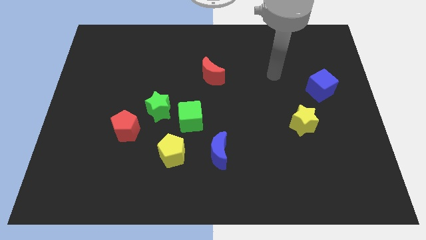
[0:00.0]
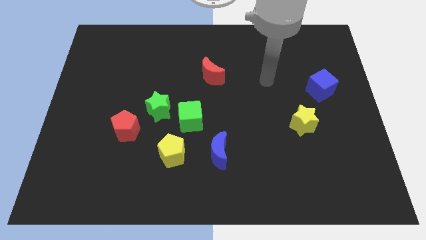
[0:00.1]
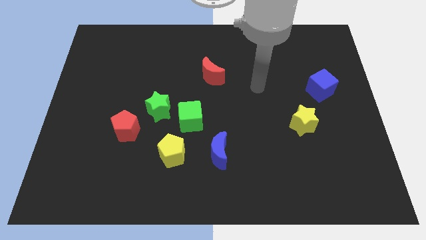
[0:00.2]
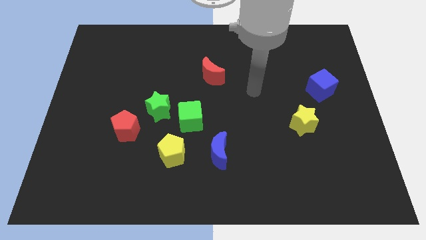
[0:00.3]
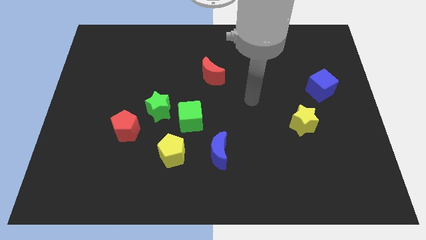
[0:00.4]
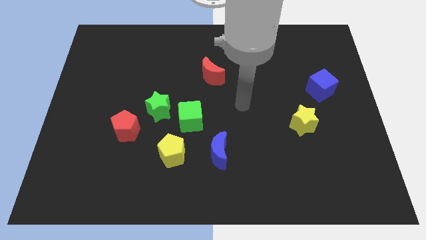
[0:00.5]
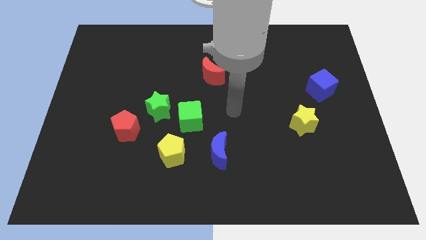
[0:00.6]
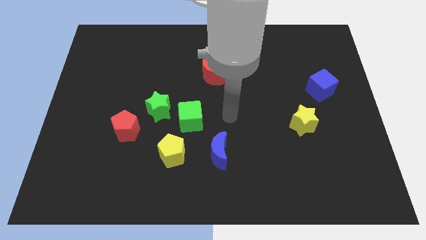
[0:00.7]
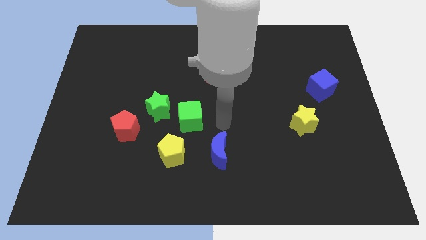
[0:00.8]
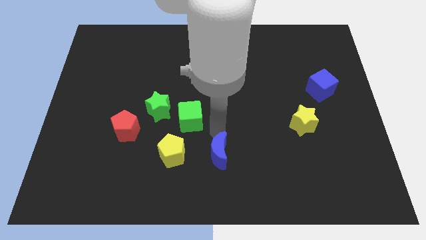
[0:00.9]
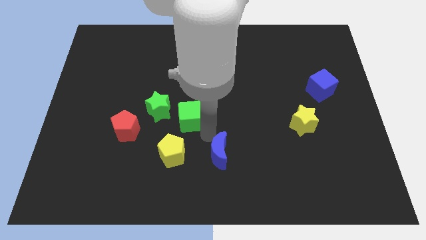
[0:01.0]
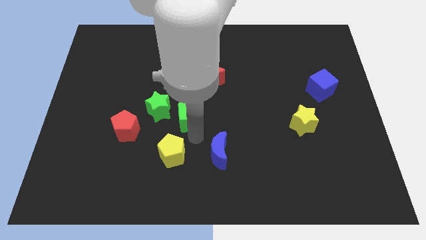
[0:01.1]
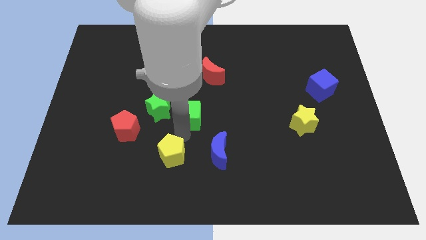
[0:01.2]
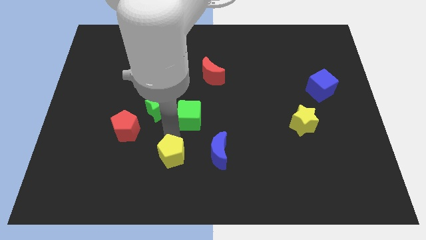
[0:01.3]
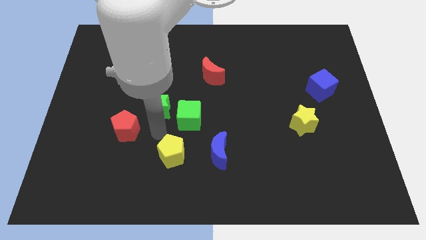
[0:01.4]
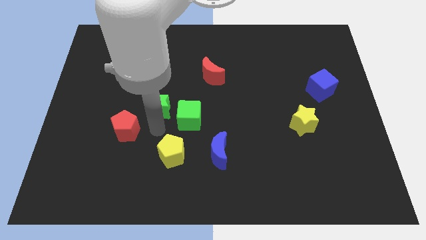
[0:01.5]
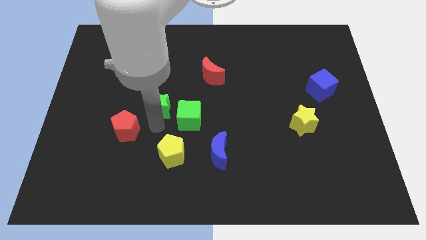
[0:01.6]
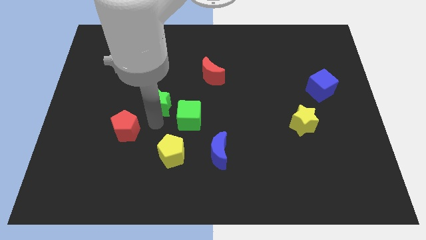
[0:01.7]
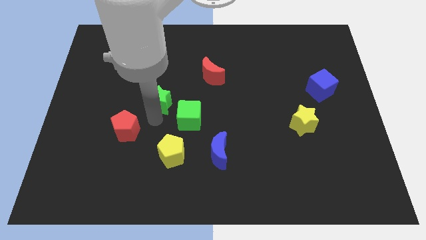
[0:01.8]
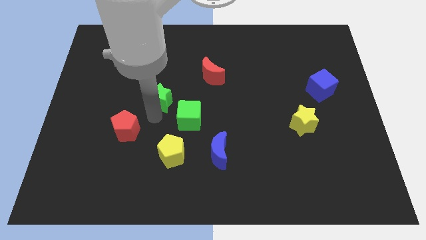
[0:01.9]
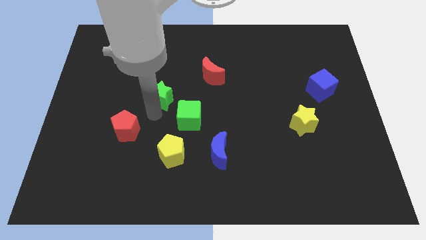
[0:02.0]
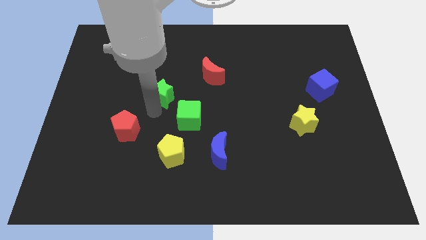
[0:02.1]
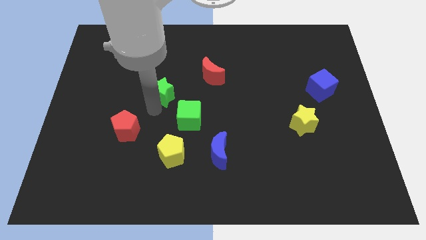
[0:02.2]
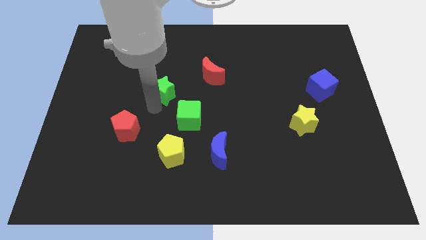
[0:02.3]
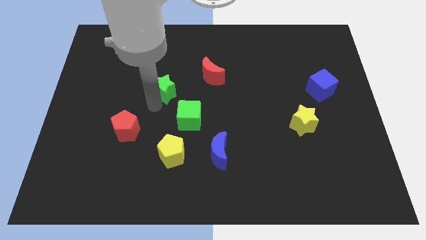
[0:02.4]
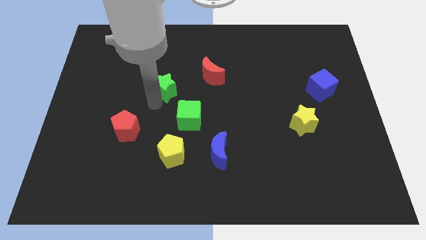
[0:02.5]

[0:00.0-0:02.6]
separate the green star from the green cube and red pentagon

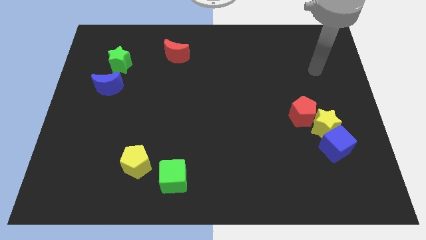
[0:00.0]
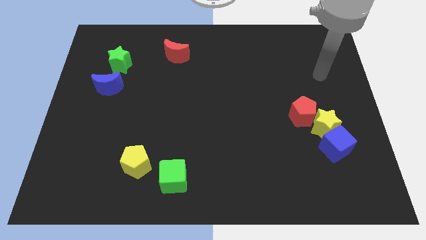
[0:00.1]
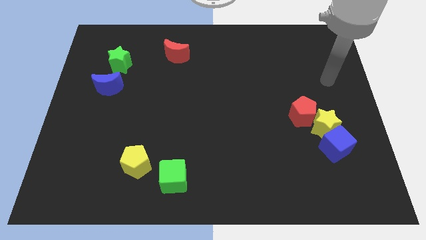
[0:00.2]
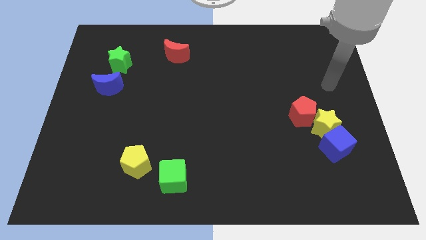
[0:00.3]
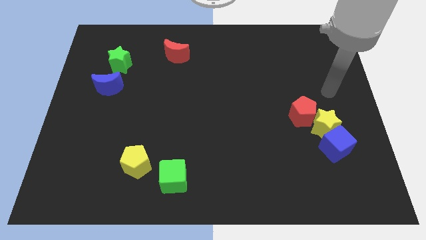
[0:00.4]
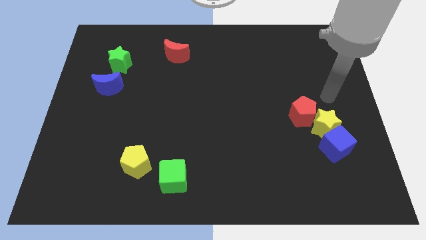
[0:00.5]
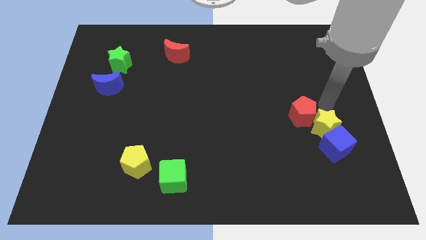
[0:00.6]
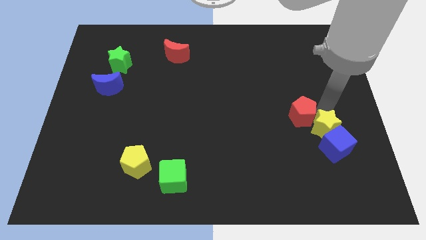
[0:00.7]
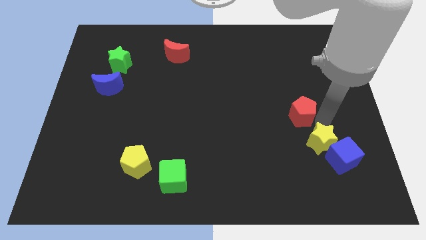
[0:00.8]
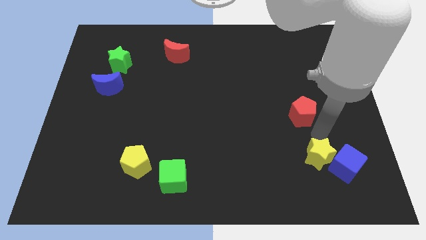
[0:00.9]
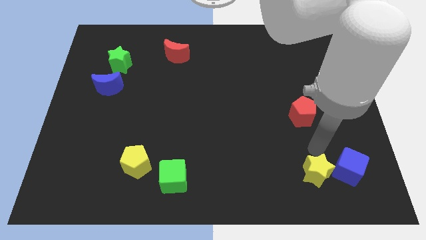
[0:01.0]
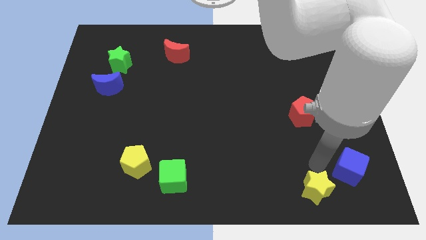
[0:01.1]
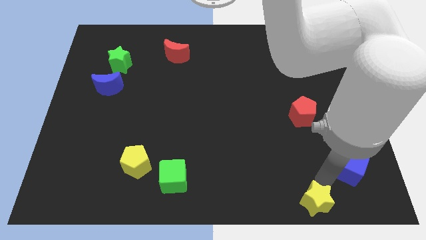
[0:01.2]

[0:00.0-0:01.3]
pull the blue cube apart from the yellow star

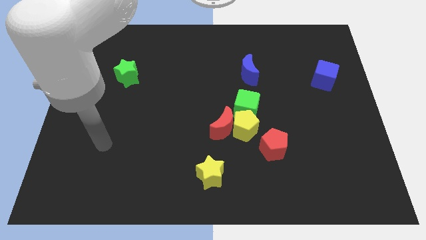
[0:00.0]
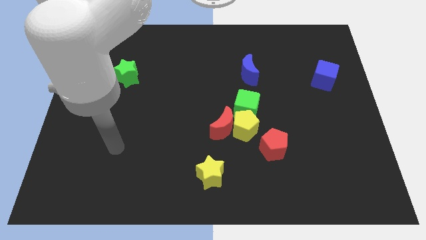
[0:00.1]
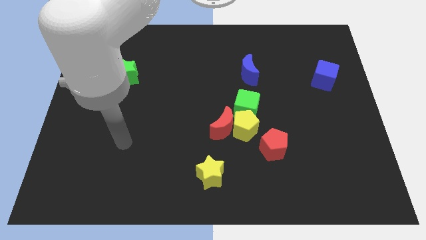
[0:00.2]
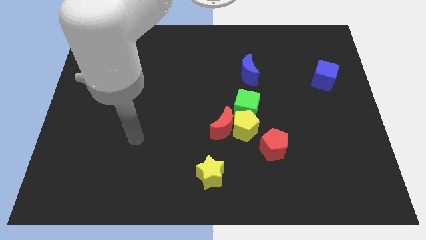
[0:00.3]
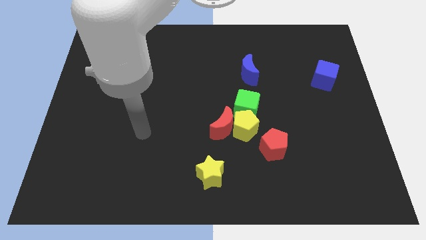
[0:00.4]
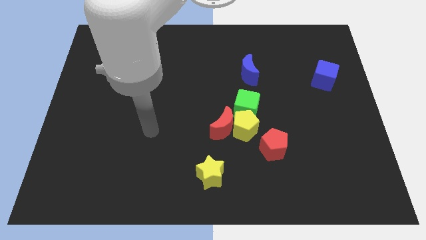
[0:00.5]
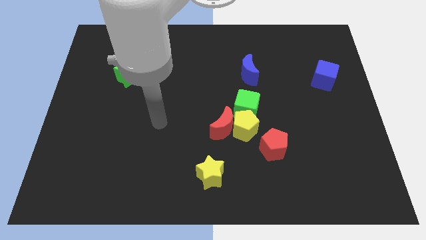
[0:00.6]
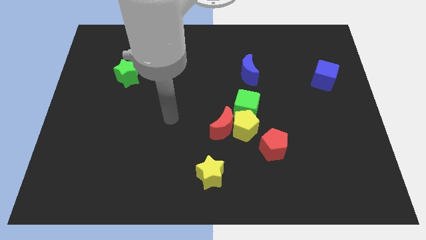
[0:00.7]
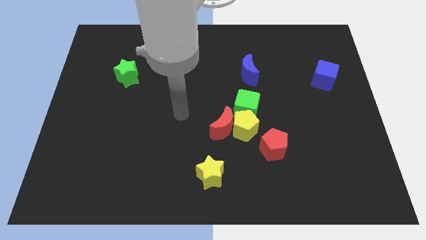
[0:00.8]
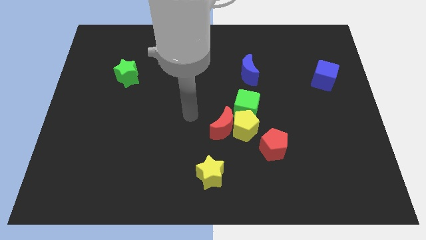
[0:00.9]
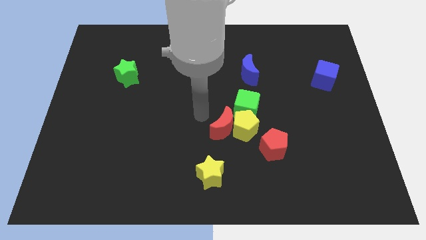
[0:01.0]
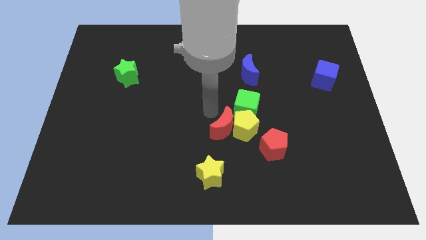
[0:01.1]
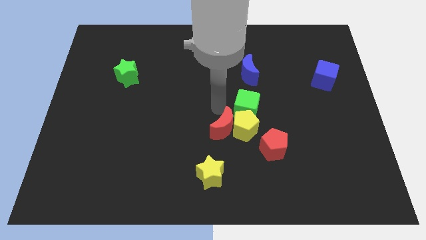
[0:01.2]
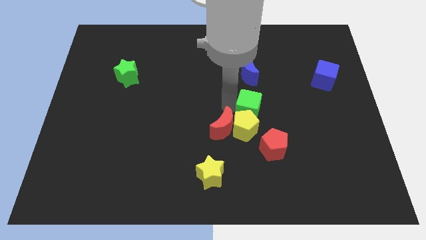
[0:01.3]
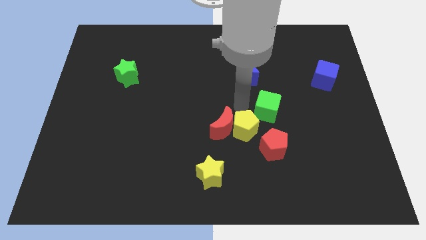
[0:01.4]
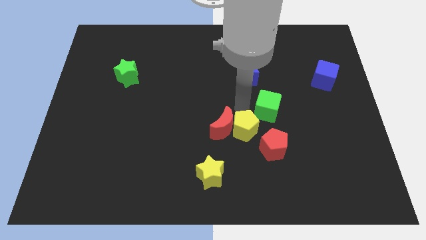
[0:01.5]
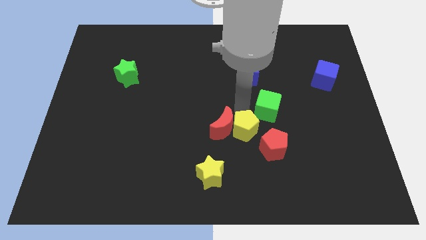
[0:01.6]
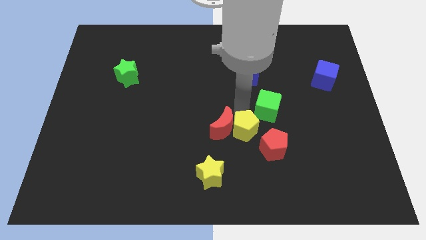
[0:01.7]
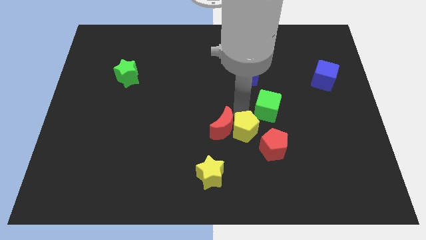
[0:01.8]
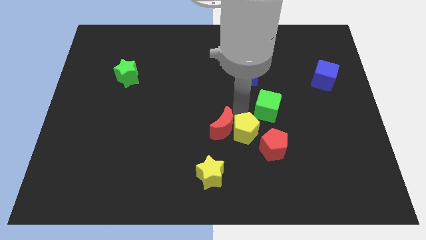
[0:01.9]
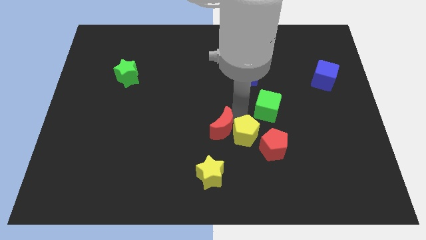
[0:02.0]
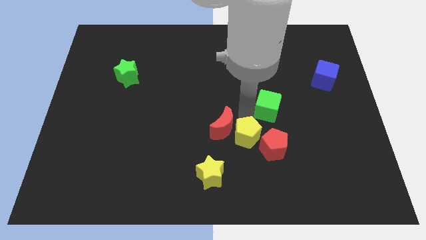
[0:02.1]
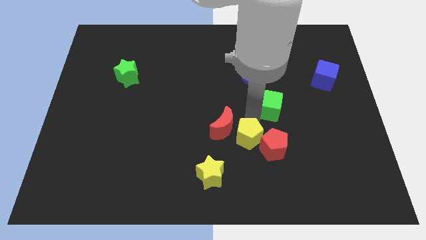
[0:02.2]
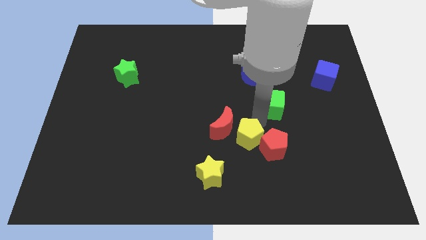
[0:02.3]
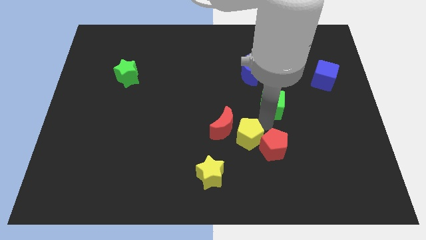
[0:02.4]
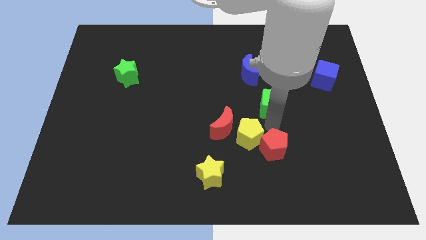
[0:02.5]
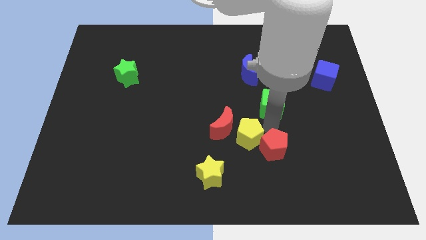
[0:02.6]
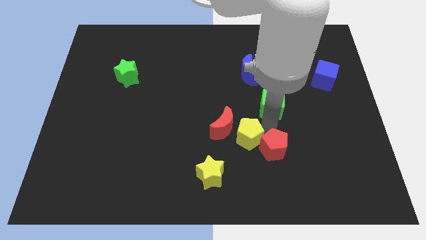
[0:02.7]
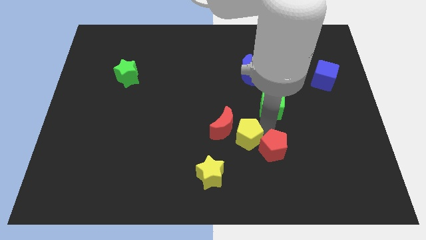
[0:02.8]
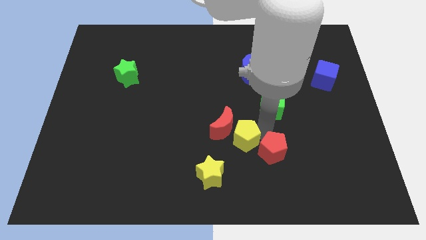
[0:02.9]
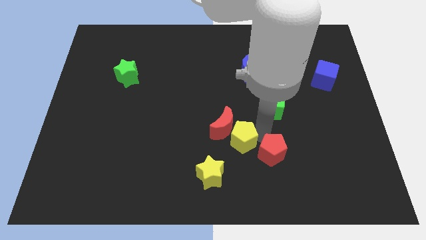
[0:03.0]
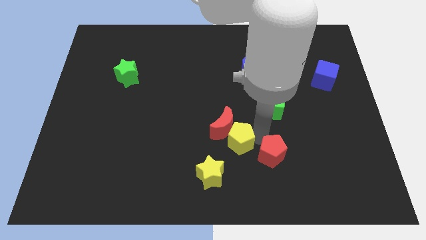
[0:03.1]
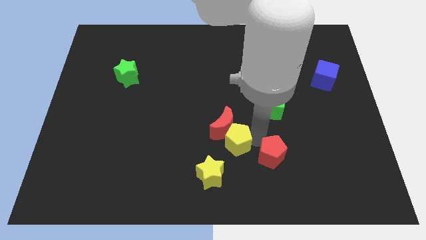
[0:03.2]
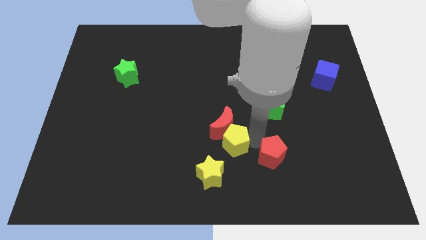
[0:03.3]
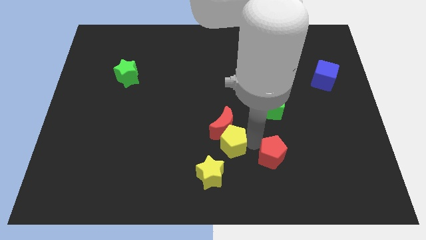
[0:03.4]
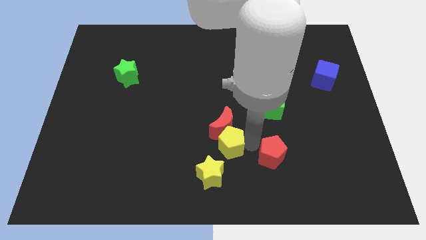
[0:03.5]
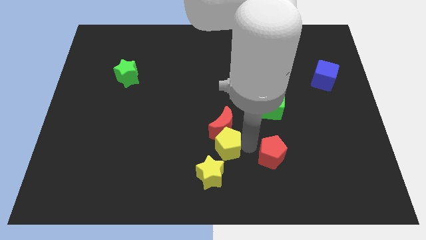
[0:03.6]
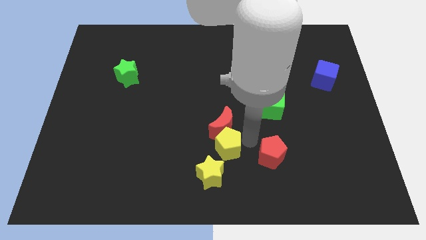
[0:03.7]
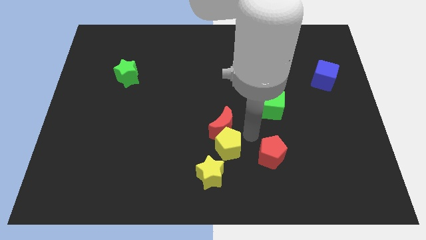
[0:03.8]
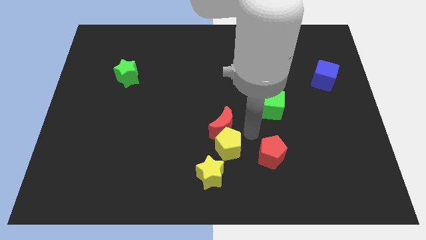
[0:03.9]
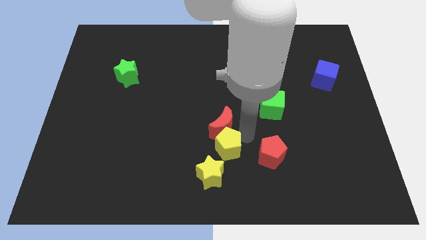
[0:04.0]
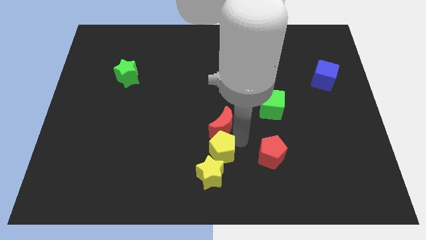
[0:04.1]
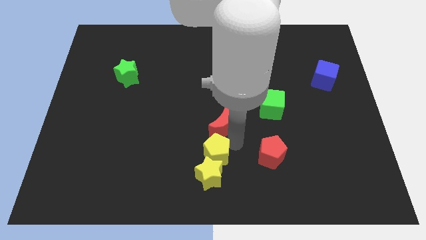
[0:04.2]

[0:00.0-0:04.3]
pull the yellow pentagon apart from the red moon, green cube, and red pentagon

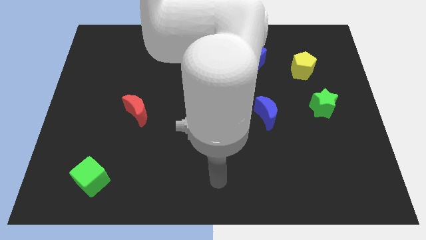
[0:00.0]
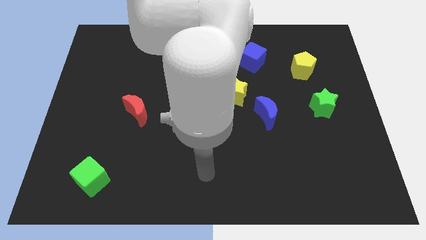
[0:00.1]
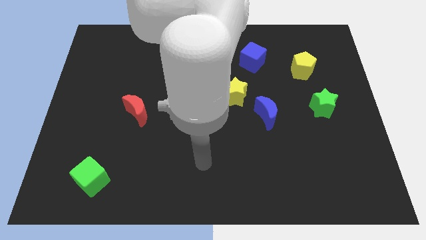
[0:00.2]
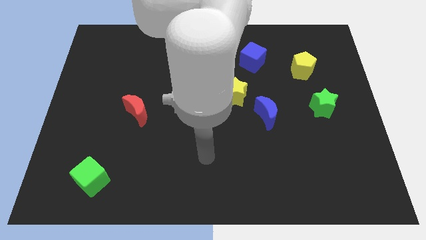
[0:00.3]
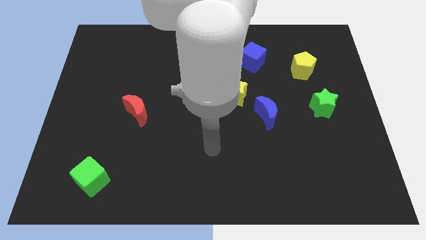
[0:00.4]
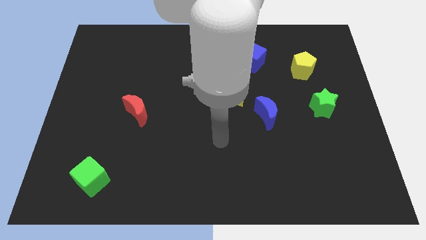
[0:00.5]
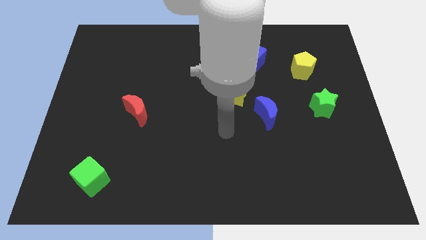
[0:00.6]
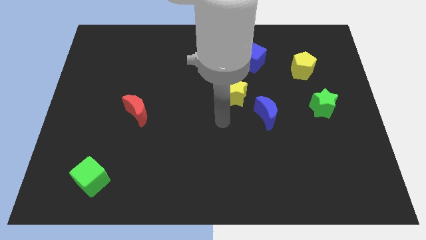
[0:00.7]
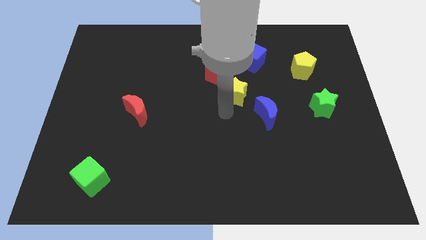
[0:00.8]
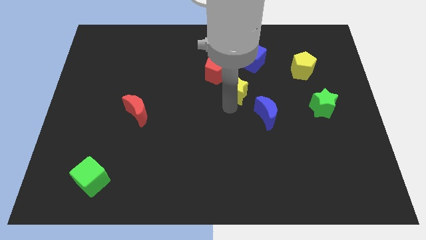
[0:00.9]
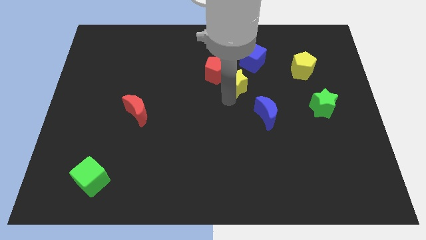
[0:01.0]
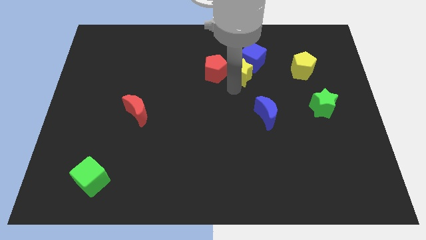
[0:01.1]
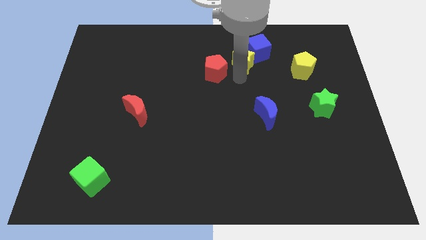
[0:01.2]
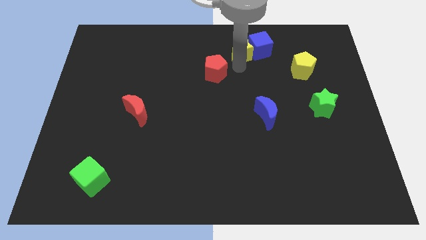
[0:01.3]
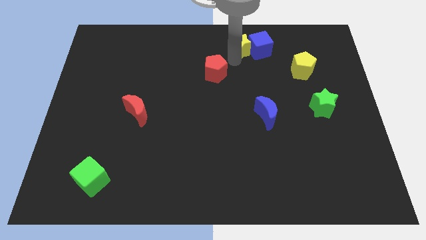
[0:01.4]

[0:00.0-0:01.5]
pull the red pentagon apart from the yellow star
